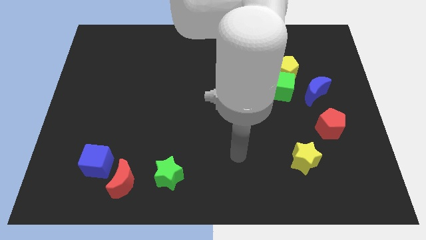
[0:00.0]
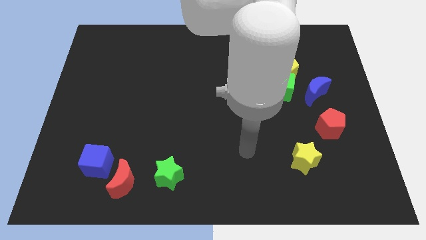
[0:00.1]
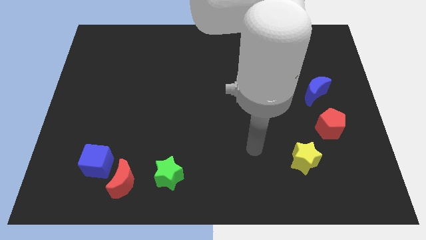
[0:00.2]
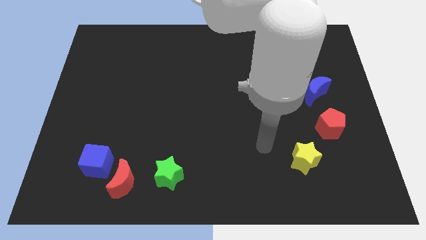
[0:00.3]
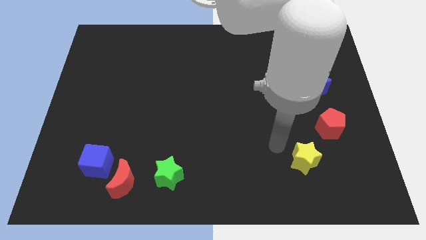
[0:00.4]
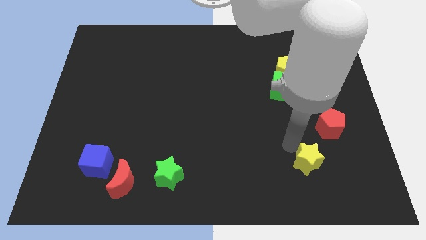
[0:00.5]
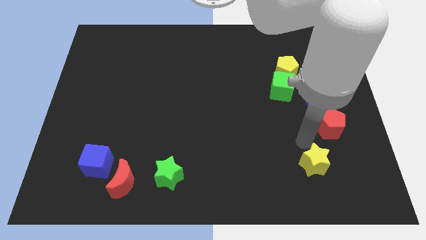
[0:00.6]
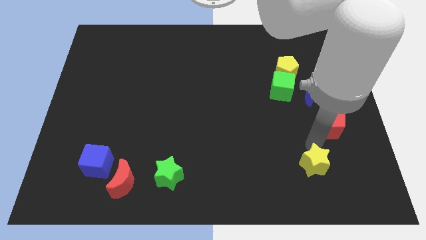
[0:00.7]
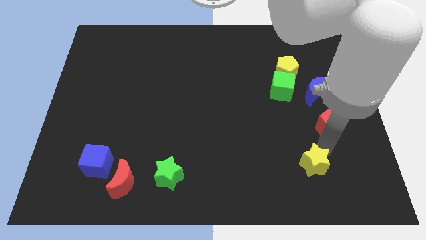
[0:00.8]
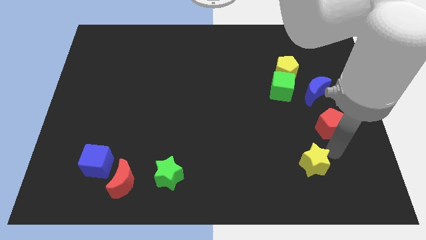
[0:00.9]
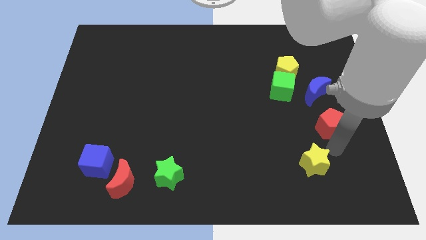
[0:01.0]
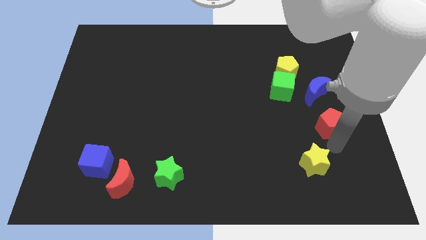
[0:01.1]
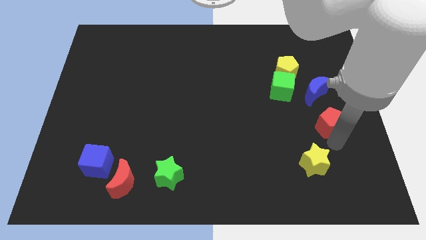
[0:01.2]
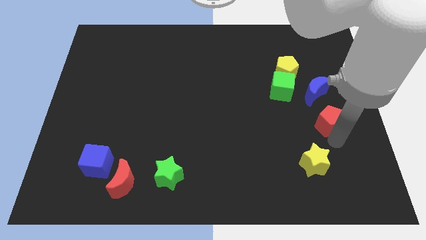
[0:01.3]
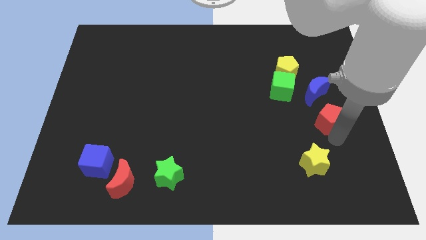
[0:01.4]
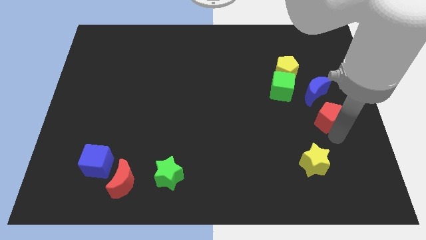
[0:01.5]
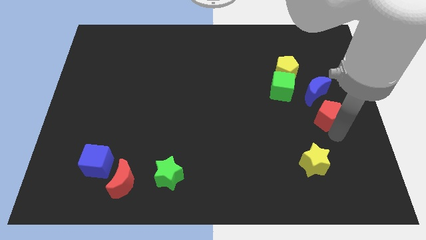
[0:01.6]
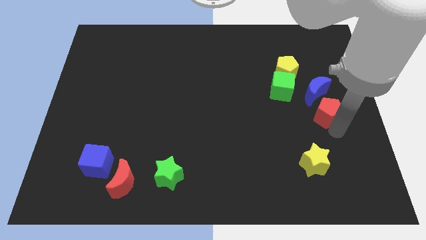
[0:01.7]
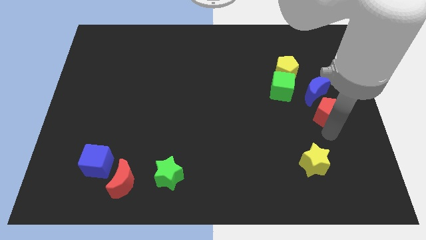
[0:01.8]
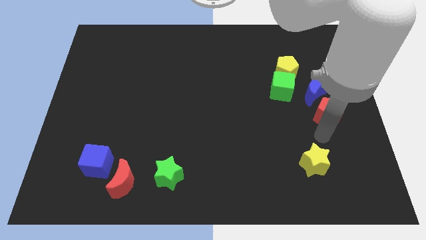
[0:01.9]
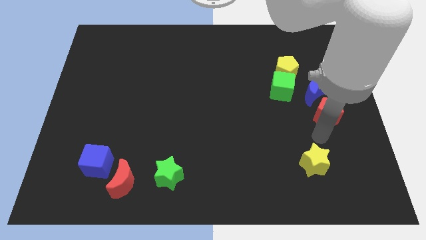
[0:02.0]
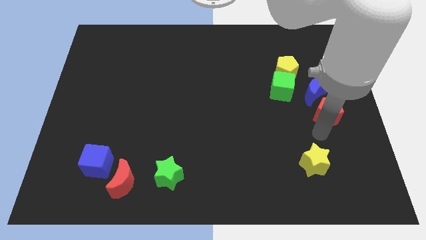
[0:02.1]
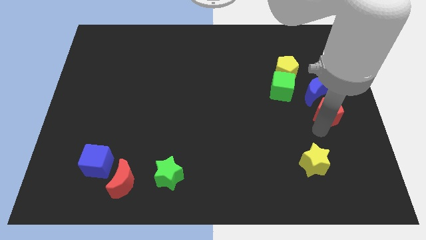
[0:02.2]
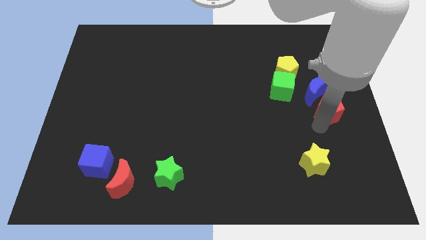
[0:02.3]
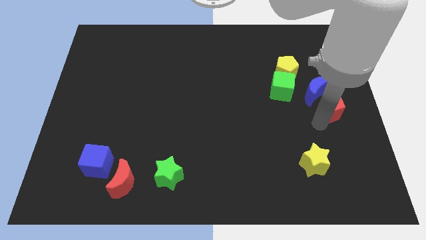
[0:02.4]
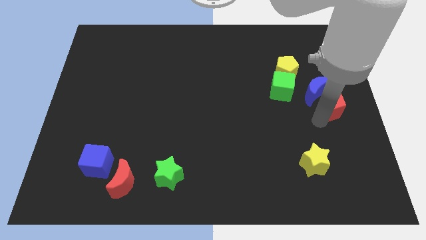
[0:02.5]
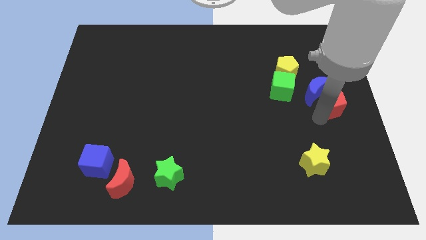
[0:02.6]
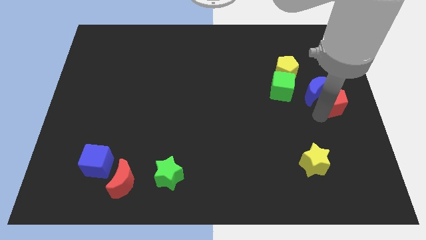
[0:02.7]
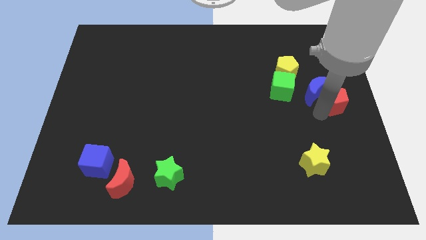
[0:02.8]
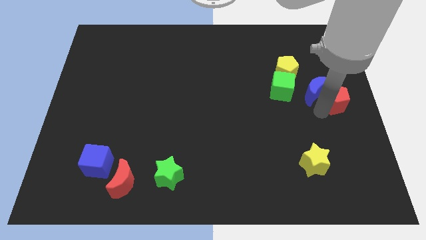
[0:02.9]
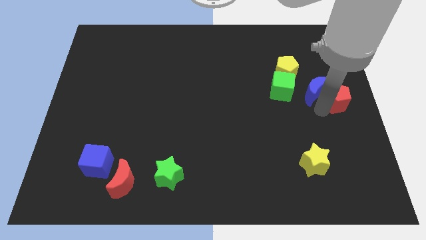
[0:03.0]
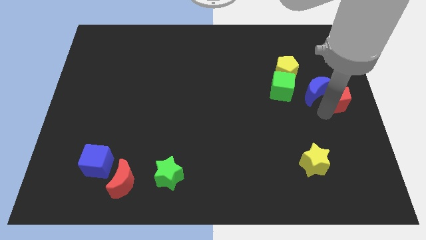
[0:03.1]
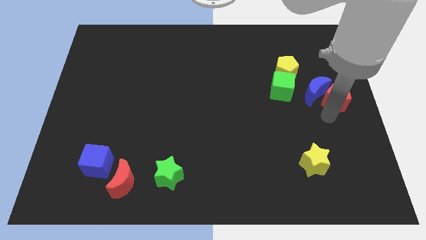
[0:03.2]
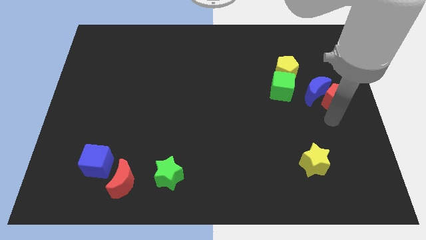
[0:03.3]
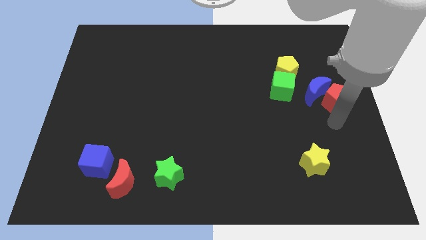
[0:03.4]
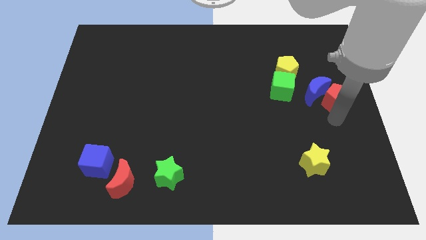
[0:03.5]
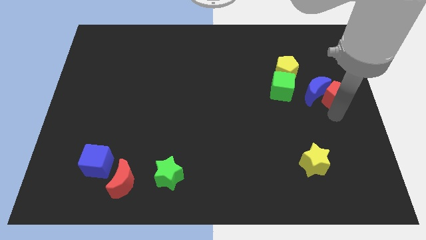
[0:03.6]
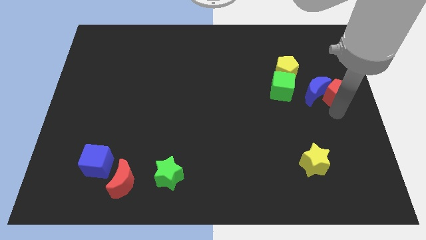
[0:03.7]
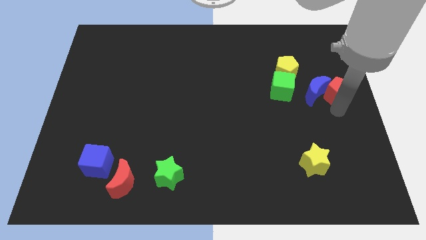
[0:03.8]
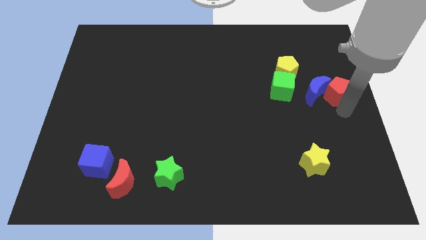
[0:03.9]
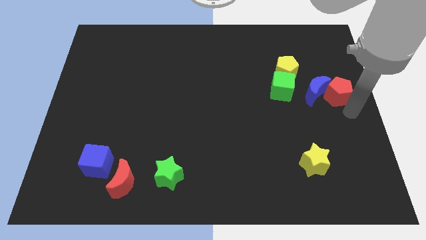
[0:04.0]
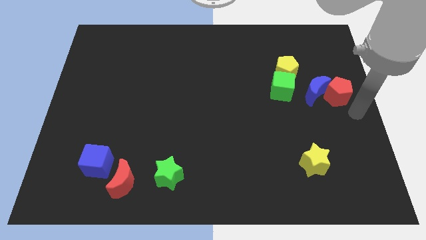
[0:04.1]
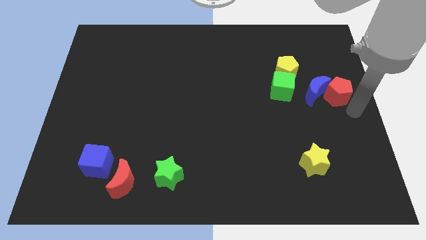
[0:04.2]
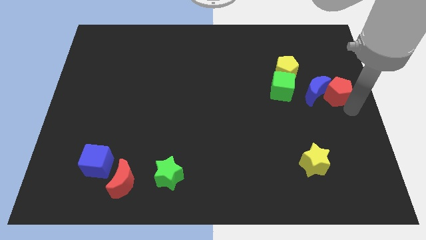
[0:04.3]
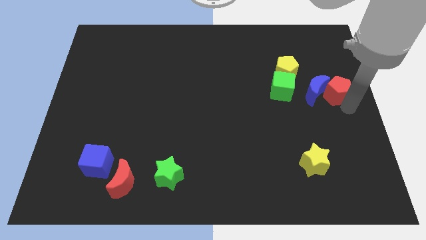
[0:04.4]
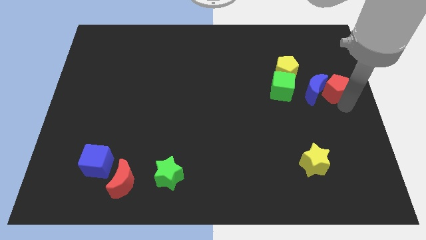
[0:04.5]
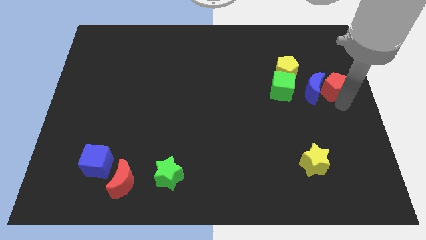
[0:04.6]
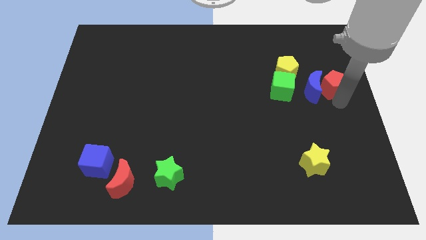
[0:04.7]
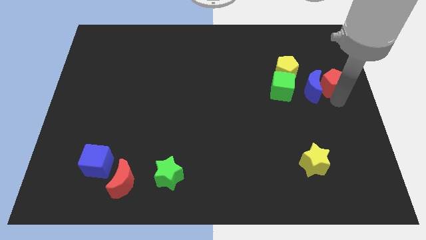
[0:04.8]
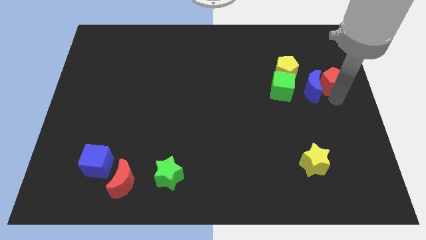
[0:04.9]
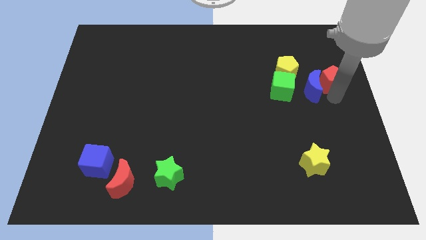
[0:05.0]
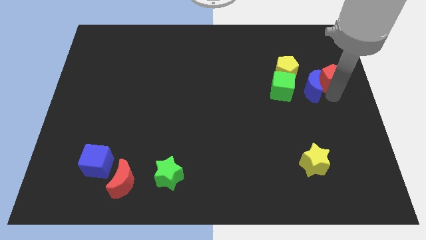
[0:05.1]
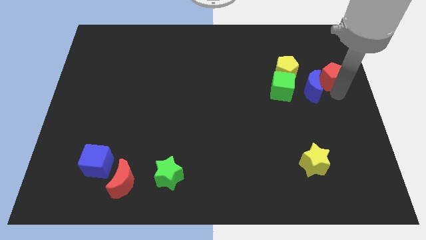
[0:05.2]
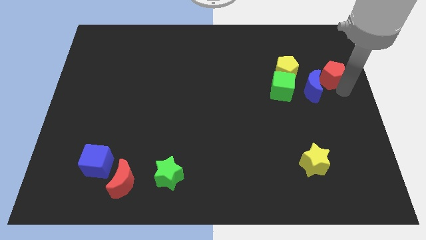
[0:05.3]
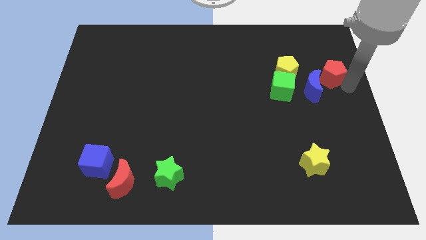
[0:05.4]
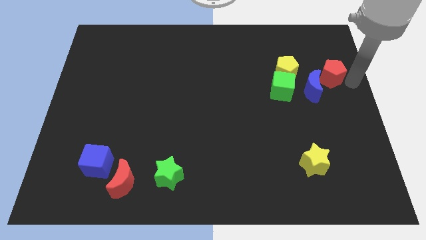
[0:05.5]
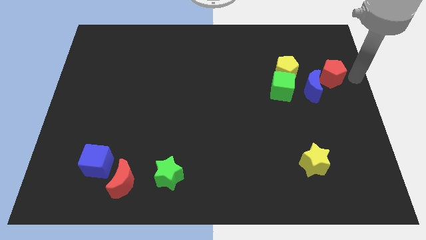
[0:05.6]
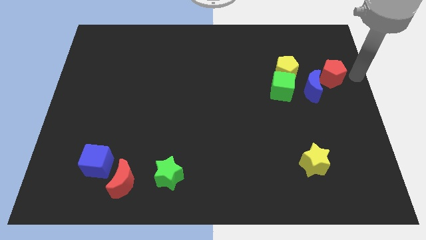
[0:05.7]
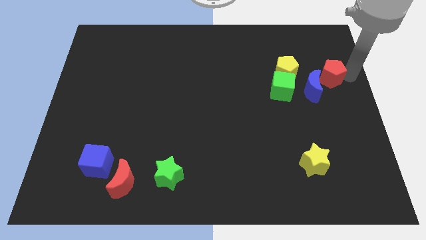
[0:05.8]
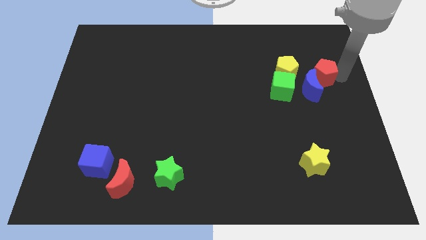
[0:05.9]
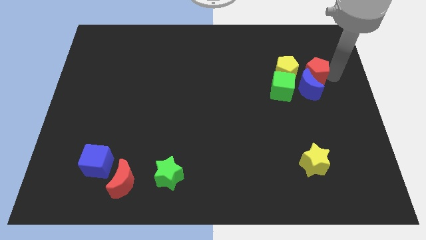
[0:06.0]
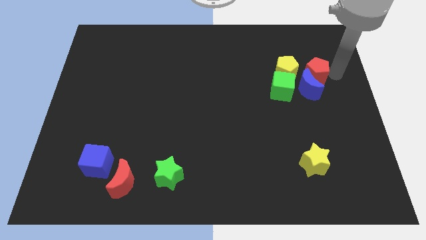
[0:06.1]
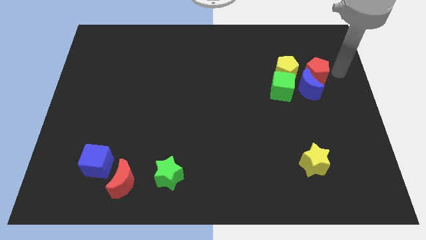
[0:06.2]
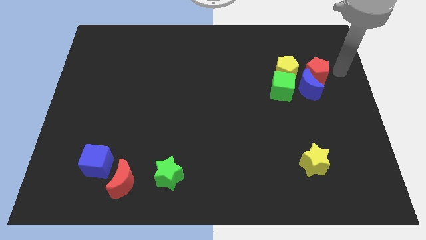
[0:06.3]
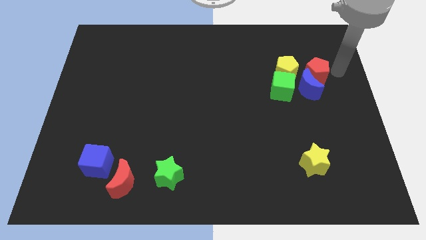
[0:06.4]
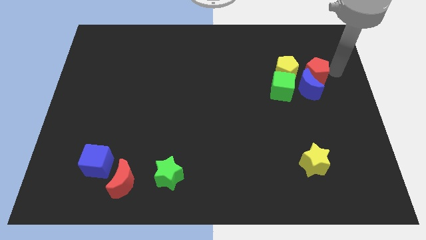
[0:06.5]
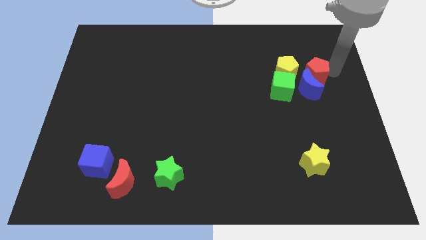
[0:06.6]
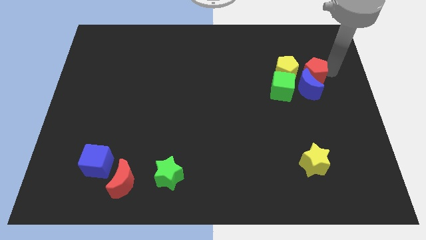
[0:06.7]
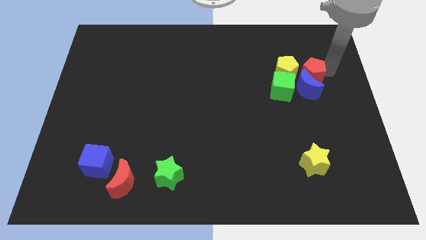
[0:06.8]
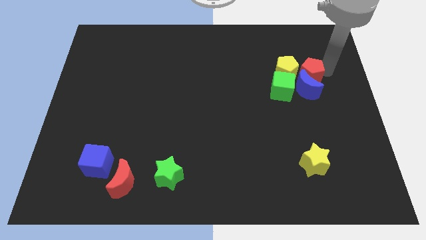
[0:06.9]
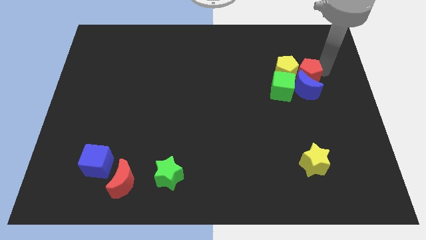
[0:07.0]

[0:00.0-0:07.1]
slide the red pentagon to the yellow pentagon
